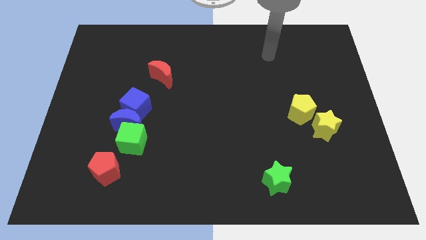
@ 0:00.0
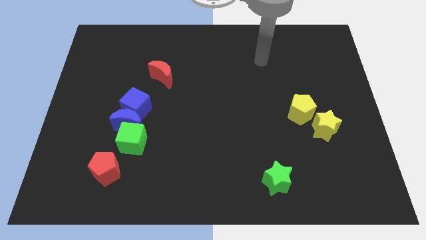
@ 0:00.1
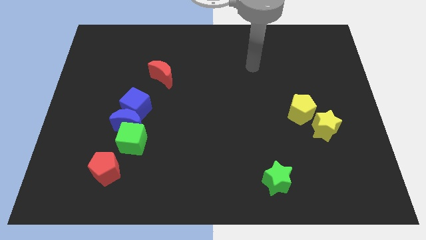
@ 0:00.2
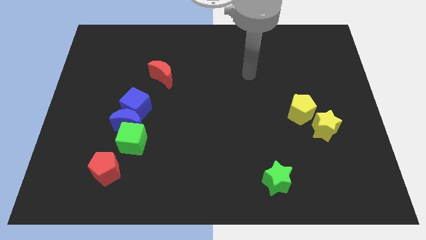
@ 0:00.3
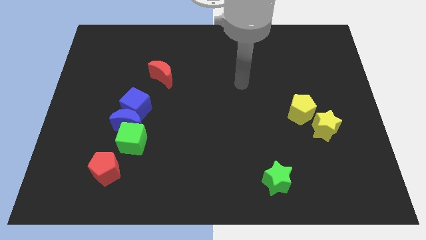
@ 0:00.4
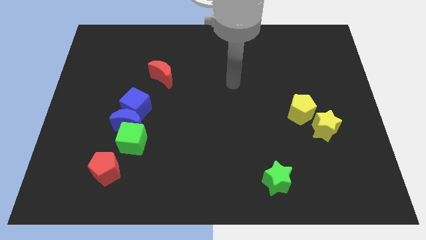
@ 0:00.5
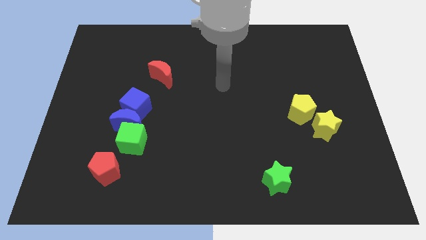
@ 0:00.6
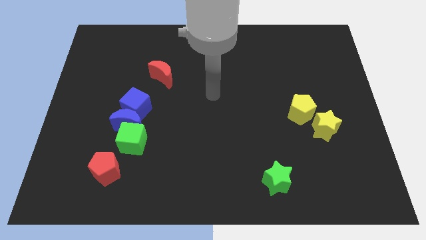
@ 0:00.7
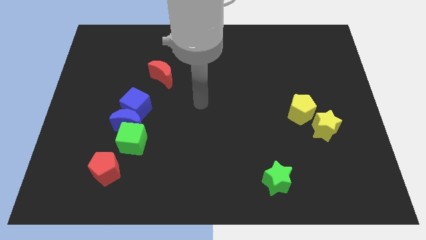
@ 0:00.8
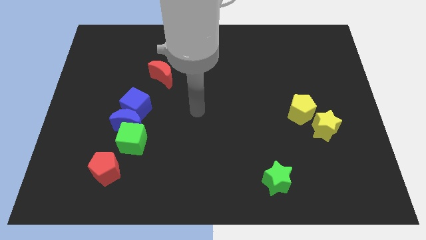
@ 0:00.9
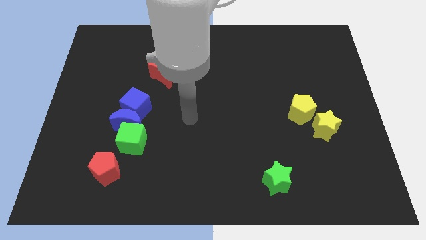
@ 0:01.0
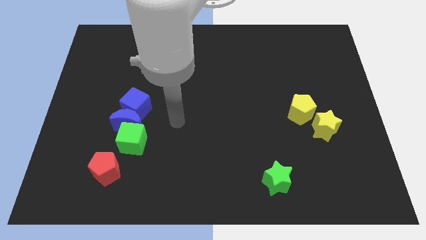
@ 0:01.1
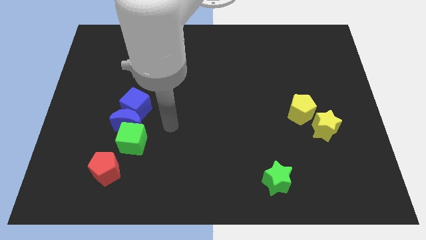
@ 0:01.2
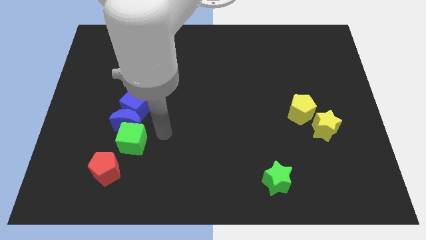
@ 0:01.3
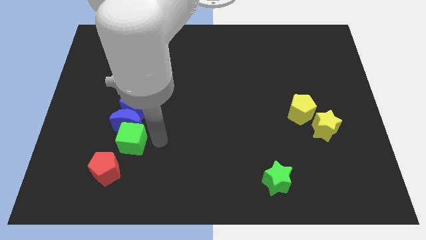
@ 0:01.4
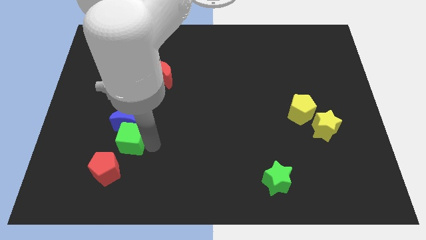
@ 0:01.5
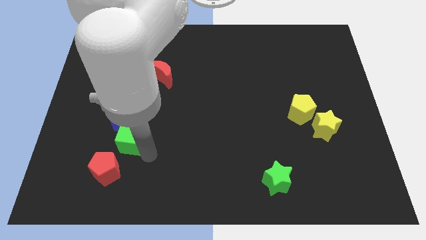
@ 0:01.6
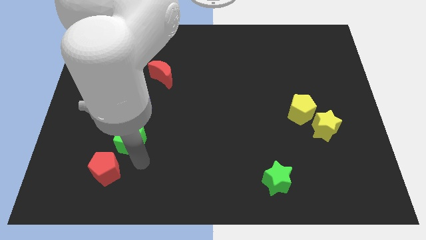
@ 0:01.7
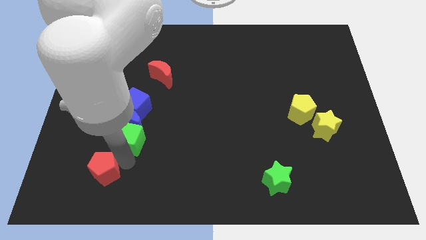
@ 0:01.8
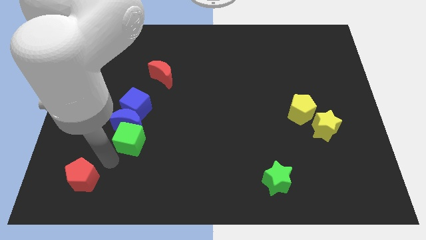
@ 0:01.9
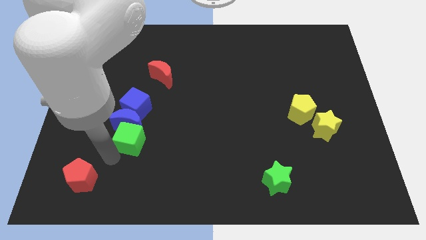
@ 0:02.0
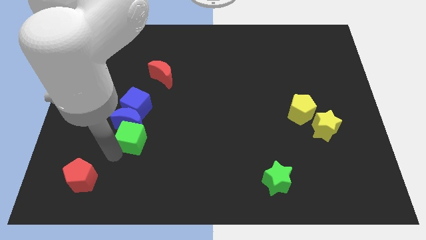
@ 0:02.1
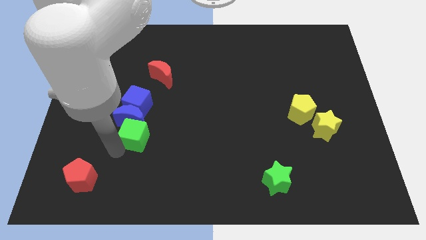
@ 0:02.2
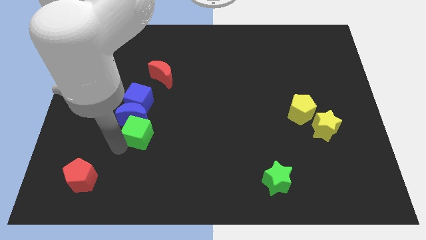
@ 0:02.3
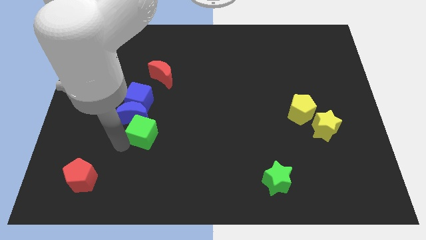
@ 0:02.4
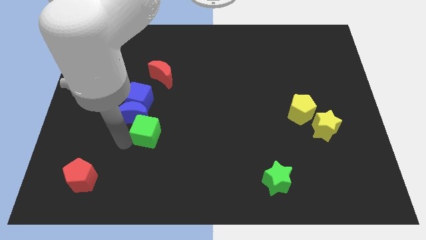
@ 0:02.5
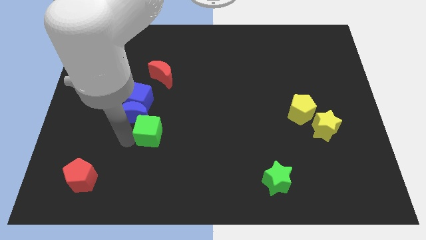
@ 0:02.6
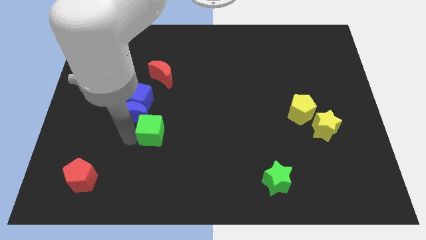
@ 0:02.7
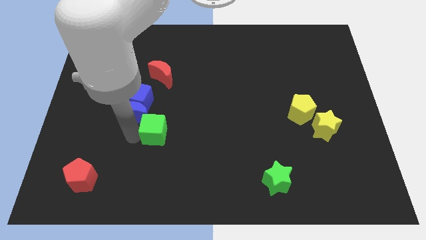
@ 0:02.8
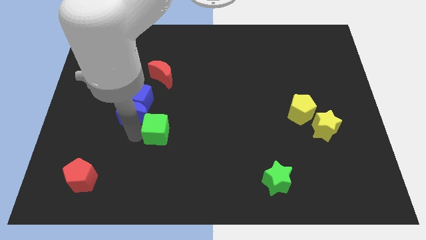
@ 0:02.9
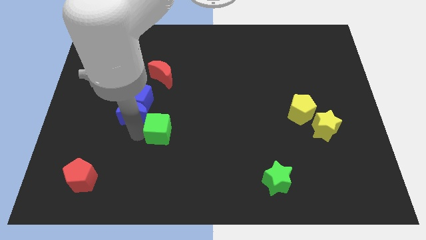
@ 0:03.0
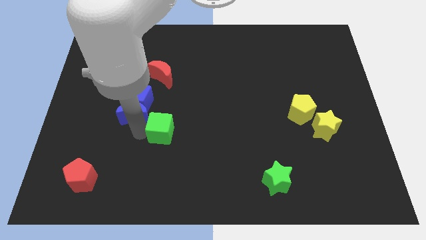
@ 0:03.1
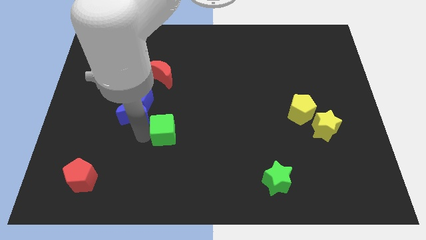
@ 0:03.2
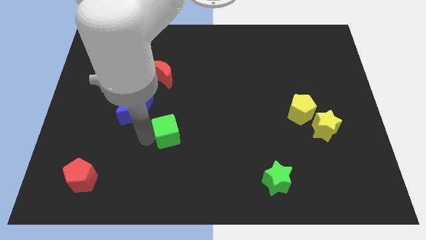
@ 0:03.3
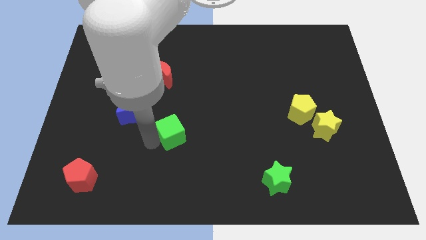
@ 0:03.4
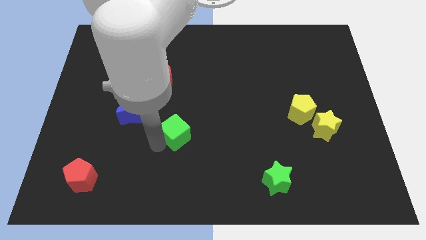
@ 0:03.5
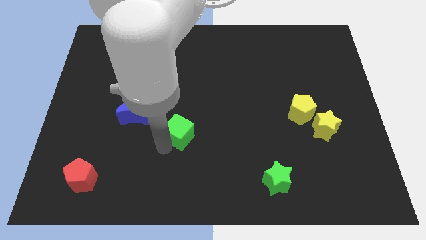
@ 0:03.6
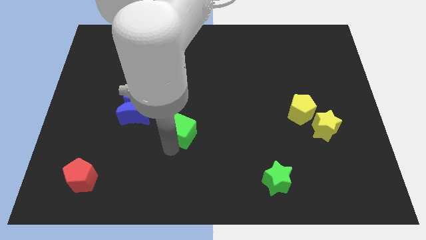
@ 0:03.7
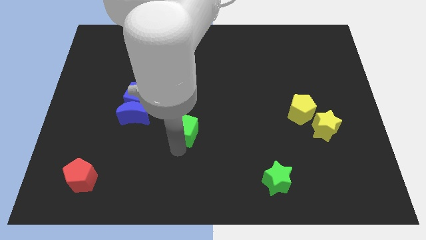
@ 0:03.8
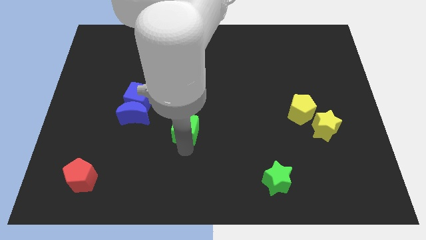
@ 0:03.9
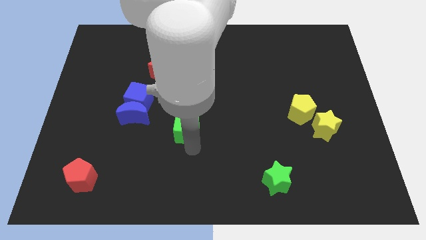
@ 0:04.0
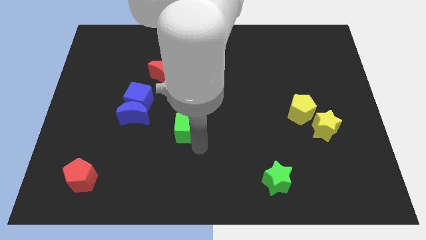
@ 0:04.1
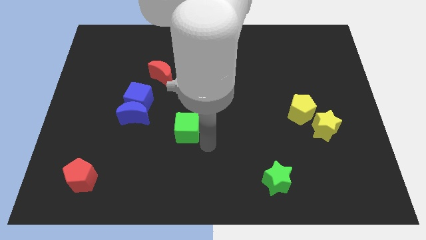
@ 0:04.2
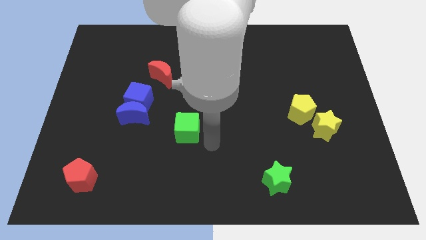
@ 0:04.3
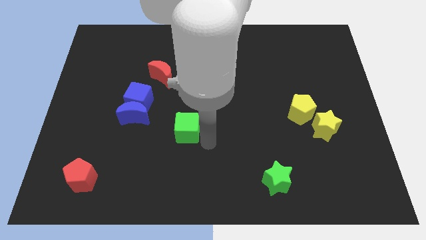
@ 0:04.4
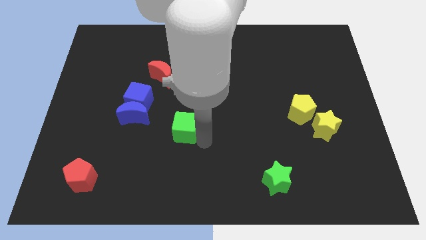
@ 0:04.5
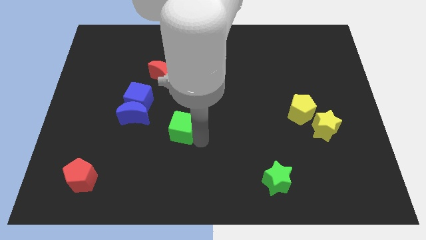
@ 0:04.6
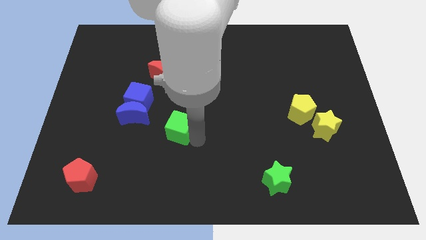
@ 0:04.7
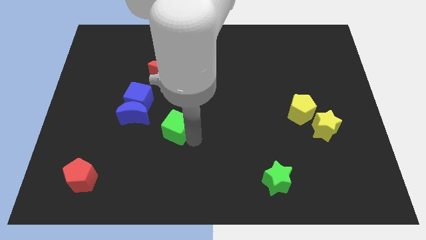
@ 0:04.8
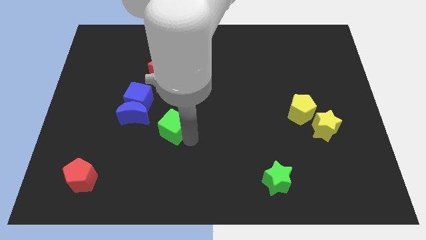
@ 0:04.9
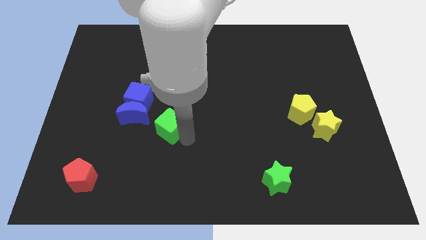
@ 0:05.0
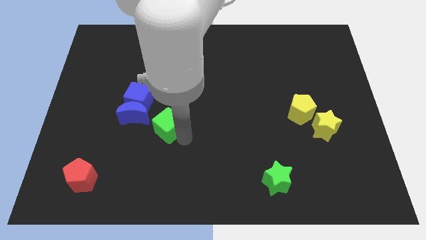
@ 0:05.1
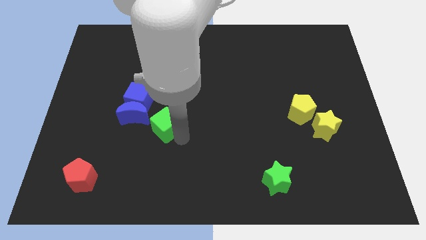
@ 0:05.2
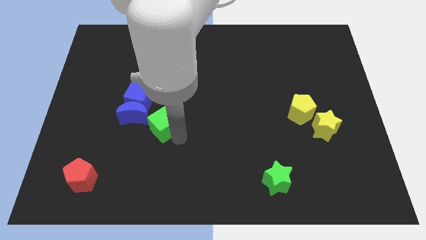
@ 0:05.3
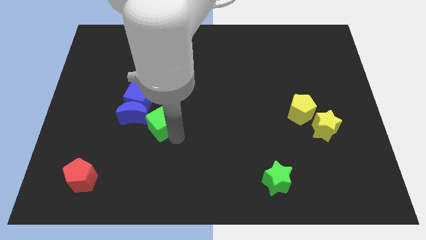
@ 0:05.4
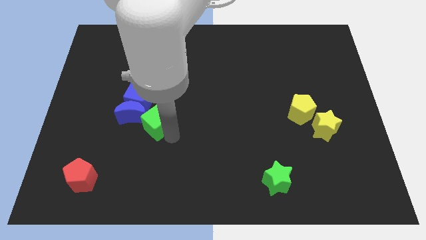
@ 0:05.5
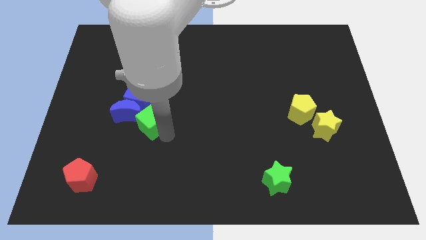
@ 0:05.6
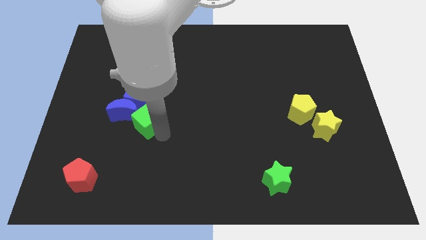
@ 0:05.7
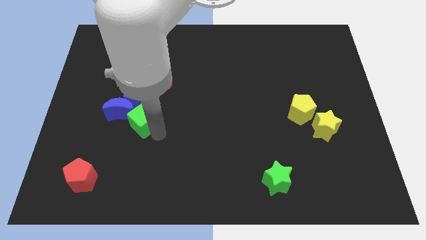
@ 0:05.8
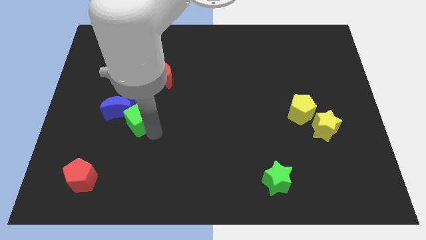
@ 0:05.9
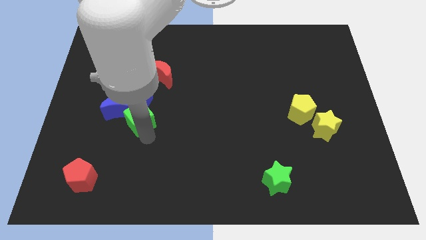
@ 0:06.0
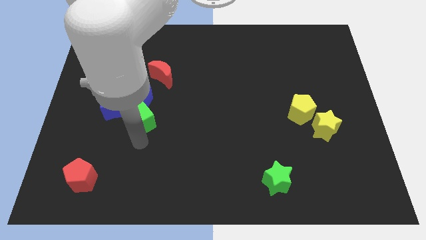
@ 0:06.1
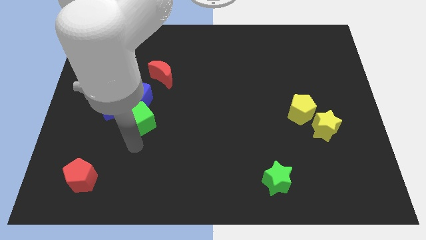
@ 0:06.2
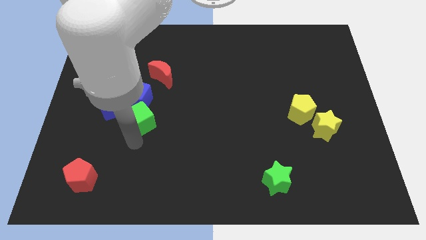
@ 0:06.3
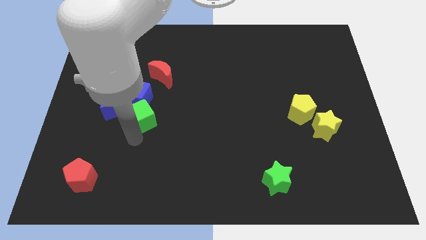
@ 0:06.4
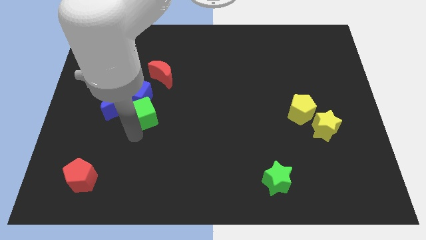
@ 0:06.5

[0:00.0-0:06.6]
slide the green cube a little bit upwards

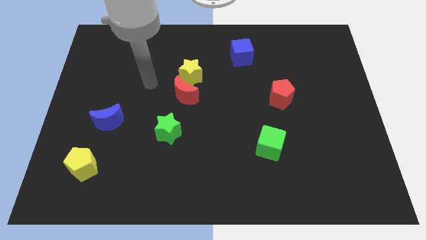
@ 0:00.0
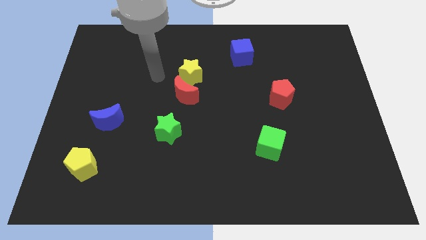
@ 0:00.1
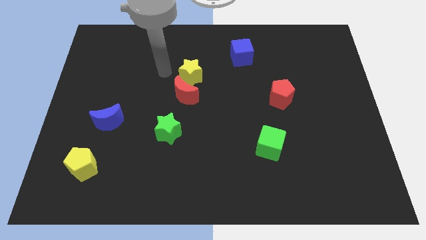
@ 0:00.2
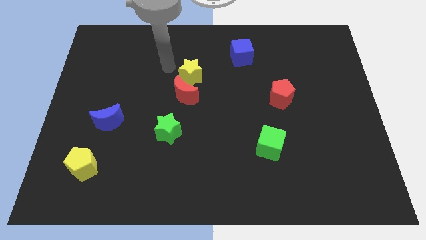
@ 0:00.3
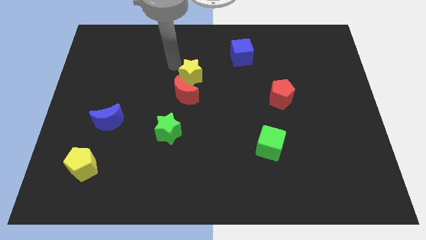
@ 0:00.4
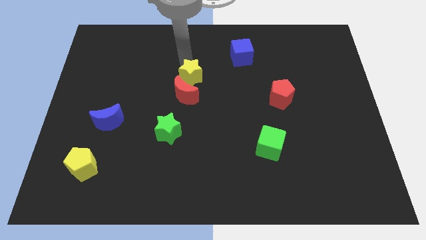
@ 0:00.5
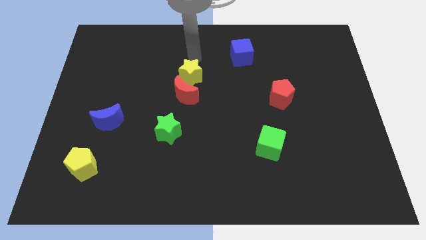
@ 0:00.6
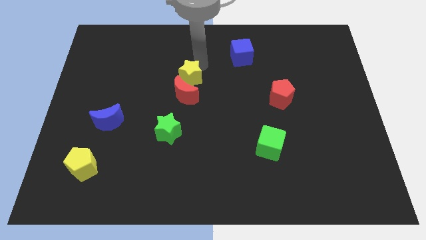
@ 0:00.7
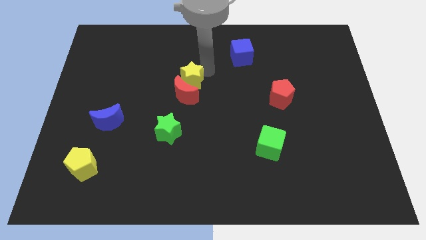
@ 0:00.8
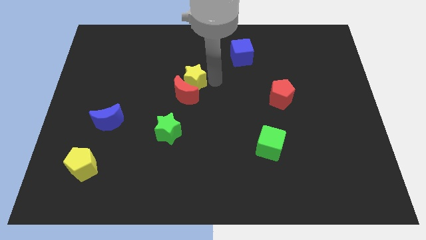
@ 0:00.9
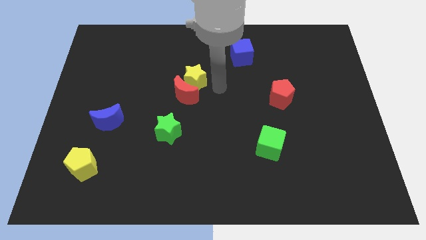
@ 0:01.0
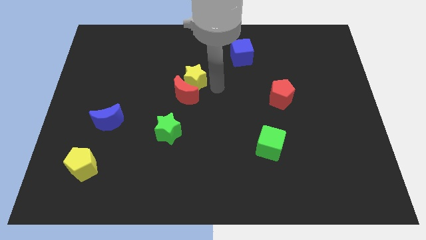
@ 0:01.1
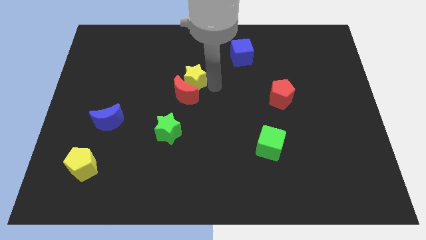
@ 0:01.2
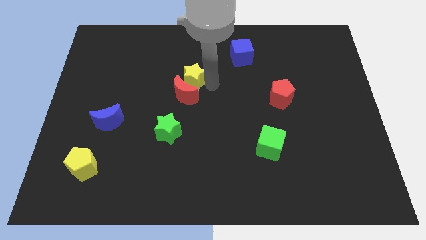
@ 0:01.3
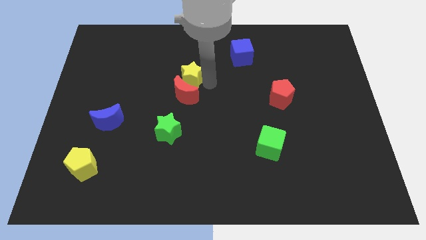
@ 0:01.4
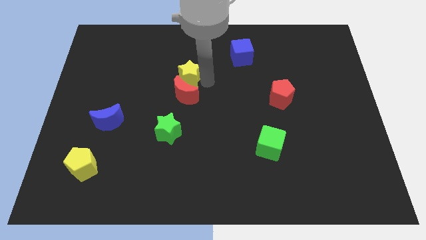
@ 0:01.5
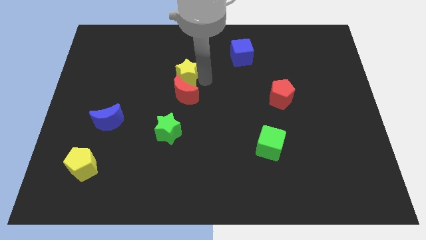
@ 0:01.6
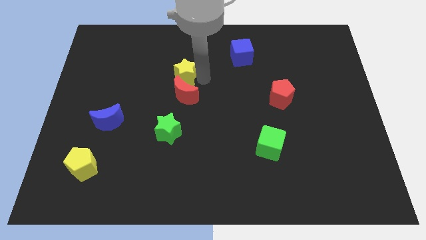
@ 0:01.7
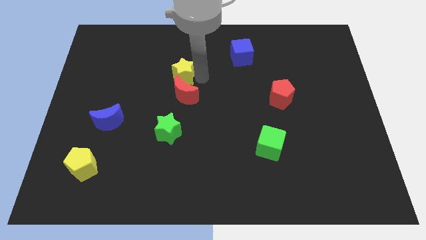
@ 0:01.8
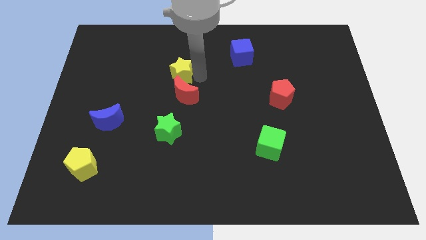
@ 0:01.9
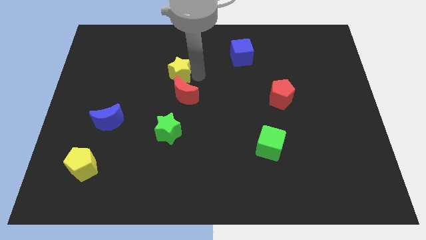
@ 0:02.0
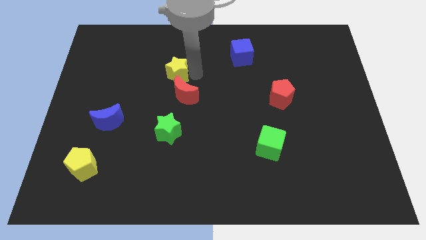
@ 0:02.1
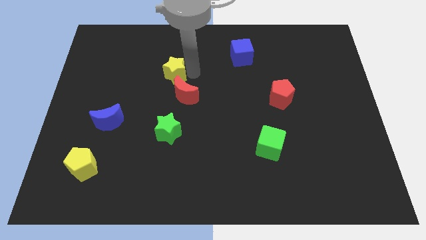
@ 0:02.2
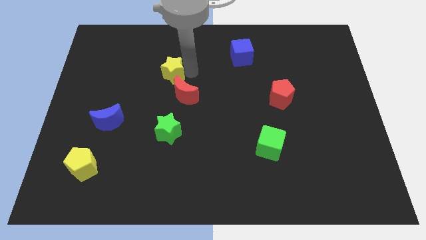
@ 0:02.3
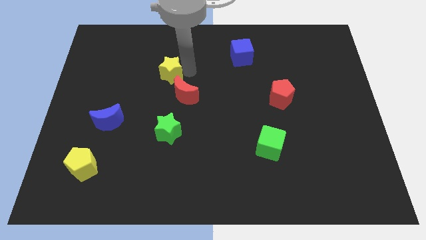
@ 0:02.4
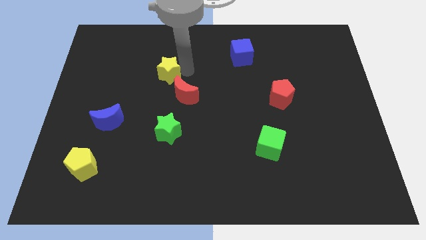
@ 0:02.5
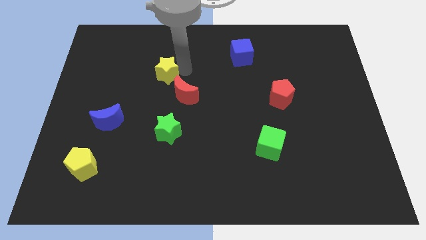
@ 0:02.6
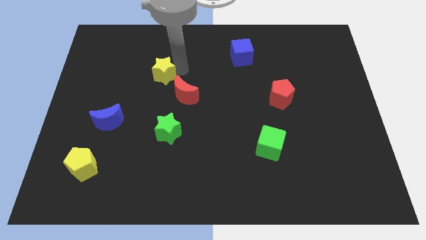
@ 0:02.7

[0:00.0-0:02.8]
move the yellow star somewhat left
